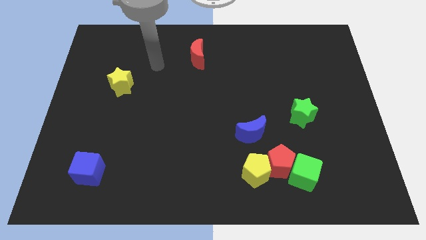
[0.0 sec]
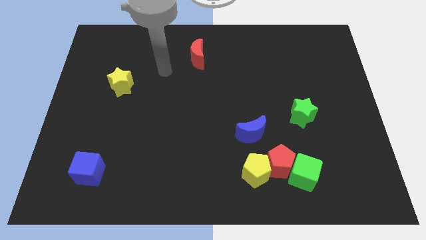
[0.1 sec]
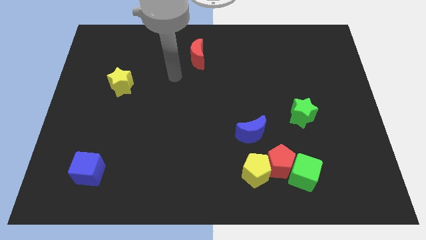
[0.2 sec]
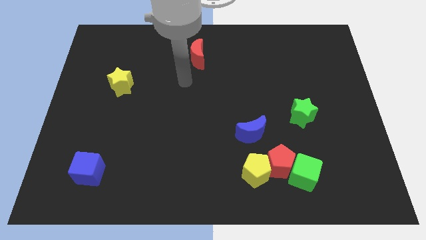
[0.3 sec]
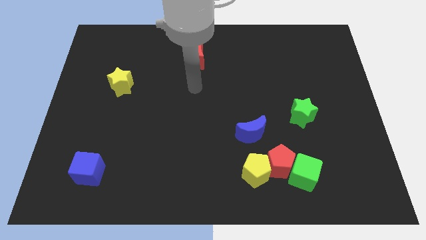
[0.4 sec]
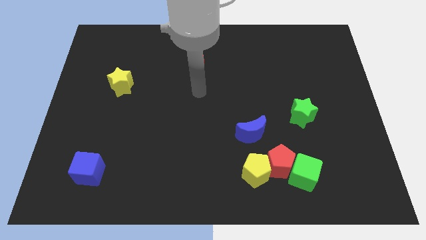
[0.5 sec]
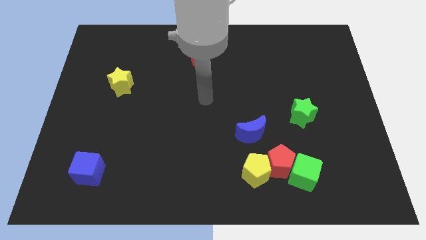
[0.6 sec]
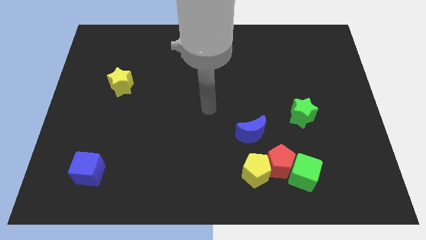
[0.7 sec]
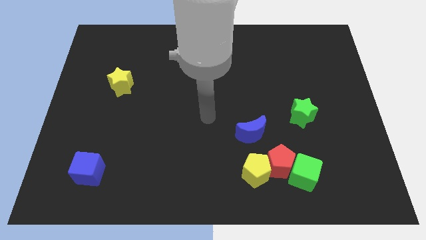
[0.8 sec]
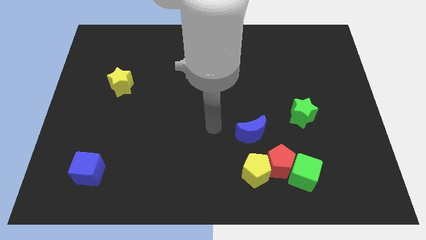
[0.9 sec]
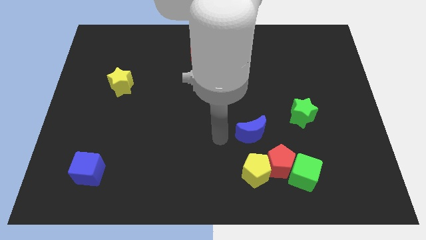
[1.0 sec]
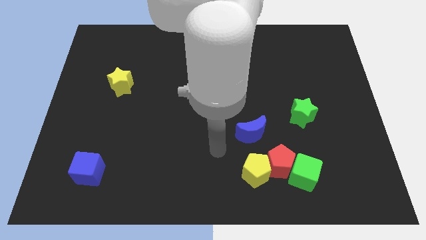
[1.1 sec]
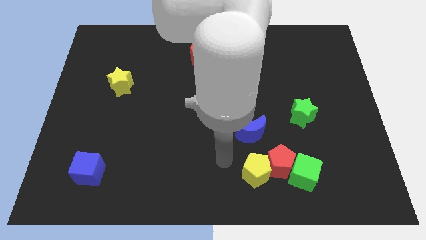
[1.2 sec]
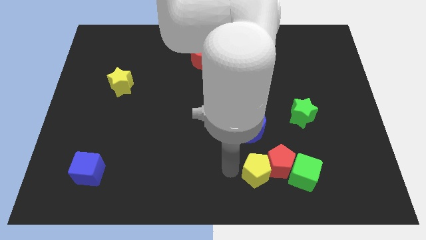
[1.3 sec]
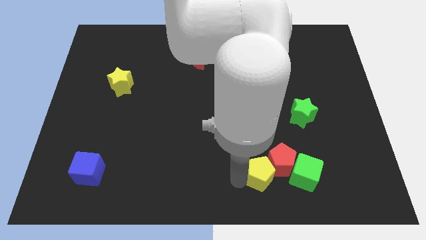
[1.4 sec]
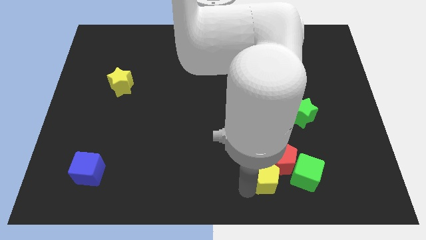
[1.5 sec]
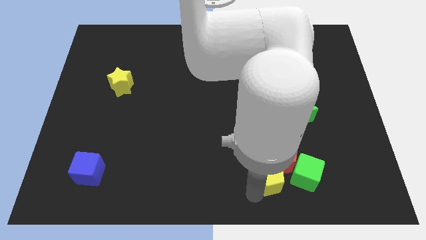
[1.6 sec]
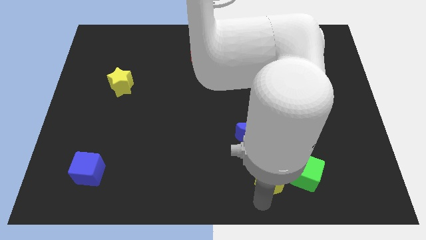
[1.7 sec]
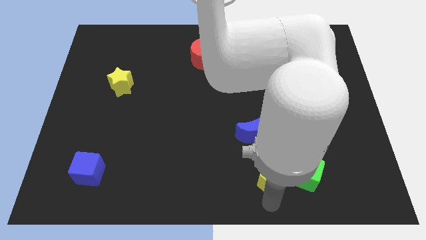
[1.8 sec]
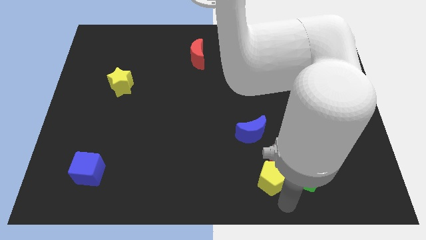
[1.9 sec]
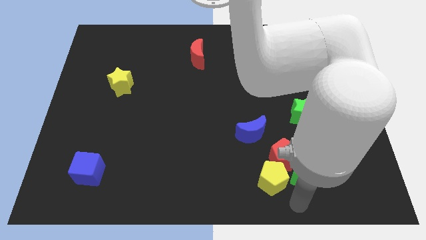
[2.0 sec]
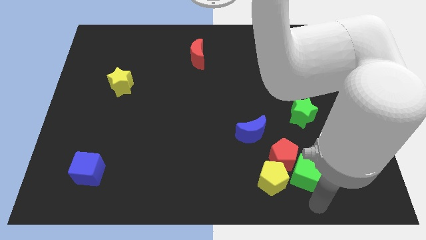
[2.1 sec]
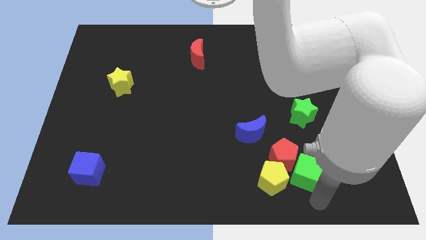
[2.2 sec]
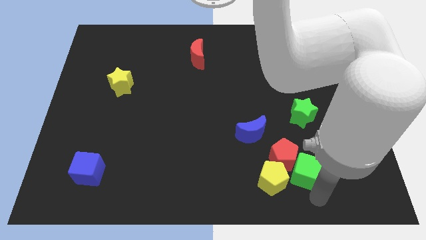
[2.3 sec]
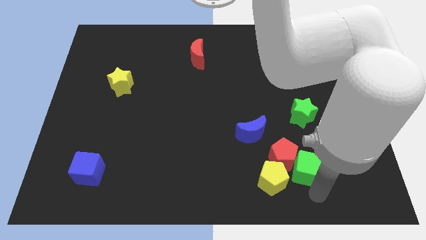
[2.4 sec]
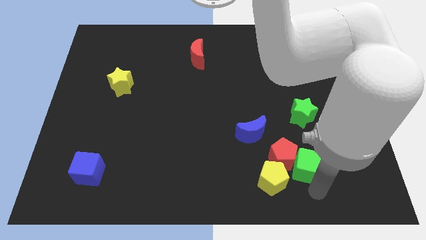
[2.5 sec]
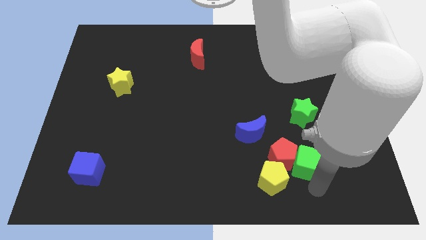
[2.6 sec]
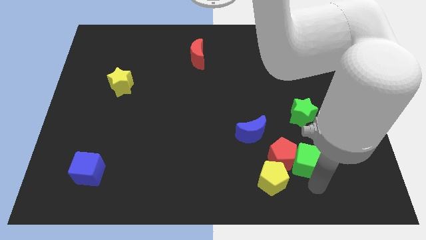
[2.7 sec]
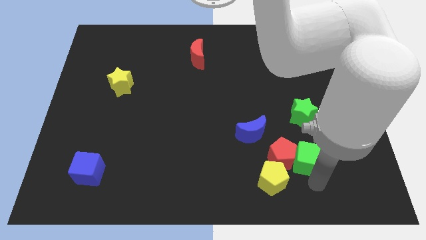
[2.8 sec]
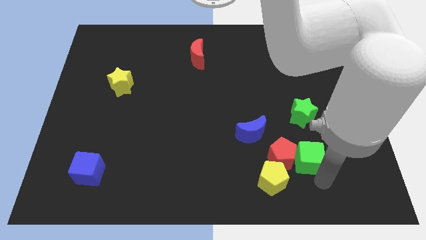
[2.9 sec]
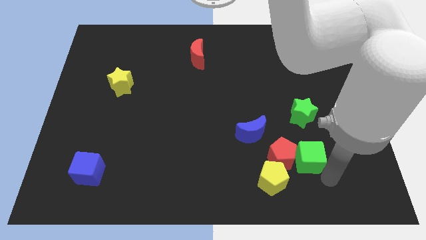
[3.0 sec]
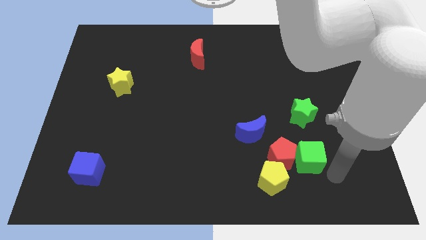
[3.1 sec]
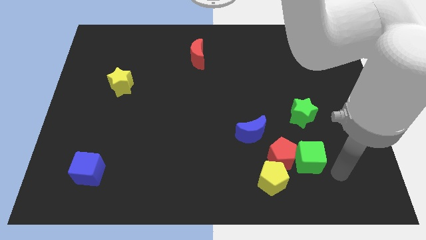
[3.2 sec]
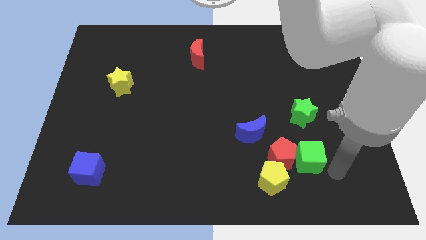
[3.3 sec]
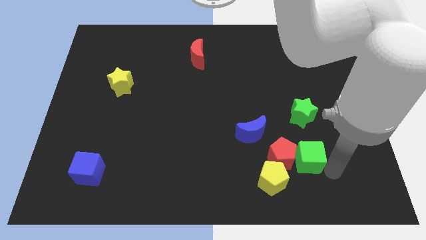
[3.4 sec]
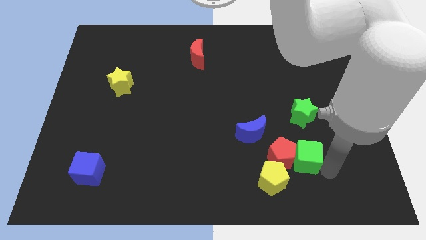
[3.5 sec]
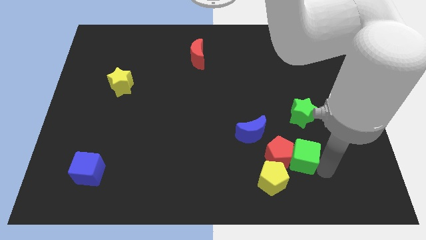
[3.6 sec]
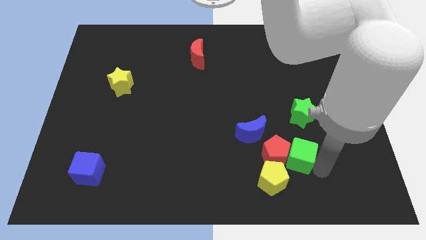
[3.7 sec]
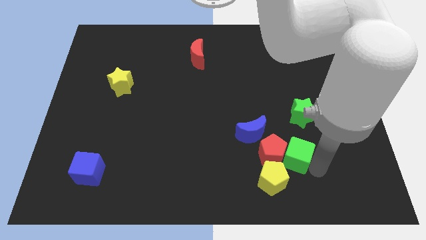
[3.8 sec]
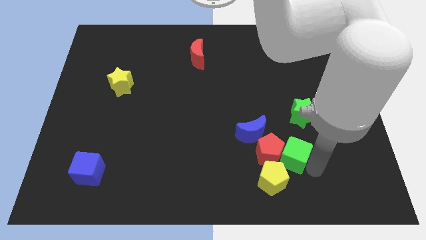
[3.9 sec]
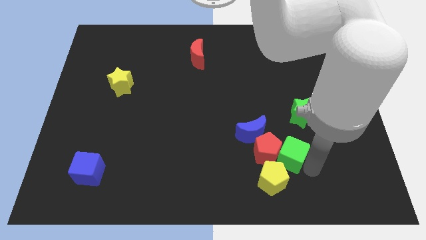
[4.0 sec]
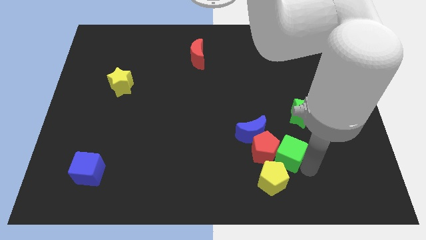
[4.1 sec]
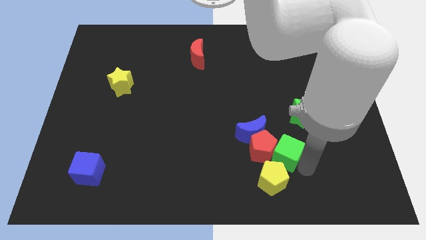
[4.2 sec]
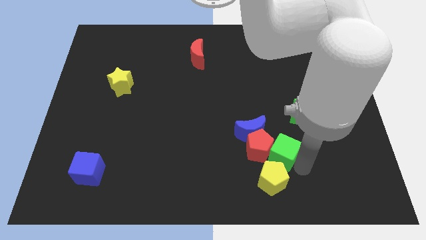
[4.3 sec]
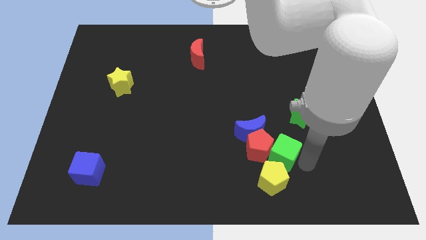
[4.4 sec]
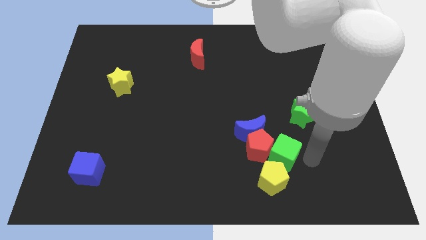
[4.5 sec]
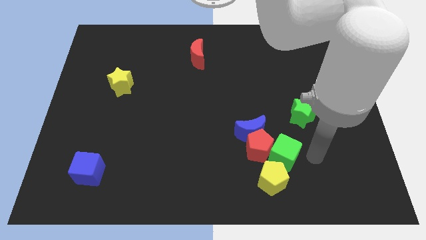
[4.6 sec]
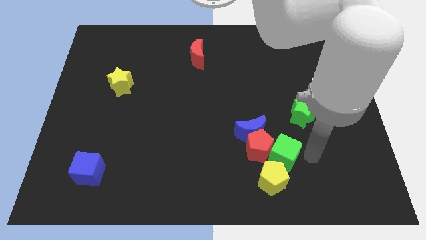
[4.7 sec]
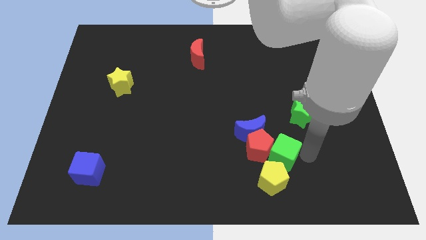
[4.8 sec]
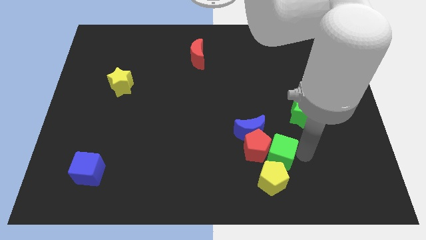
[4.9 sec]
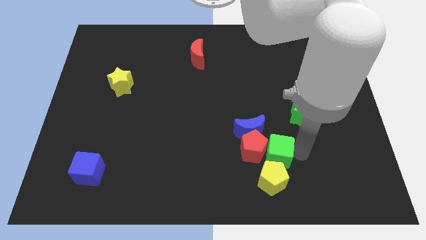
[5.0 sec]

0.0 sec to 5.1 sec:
push the green cube up and to the left diagonally a bit

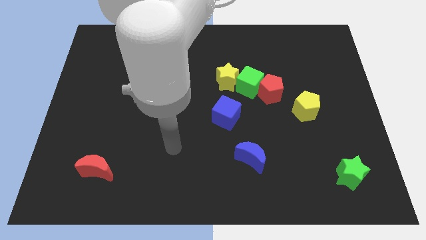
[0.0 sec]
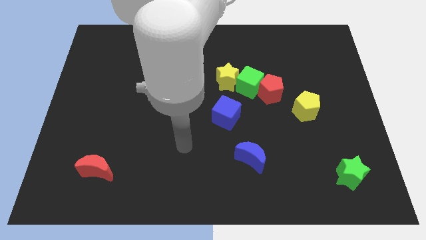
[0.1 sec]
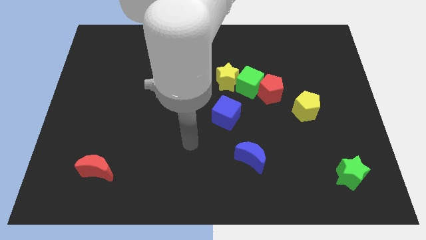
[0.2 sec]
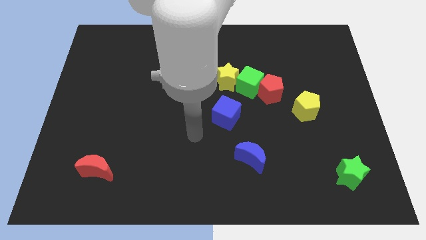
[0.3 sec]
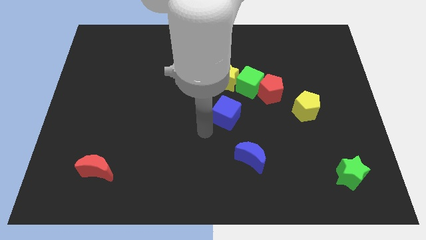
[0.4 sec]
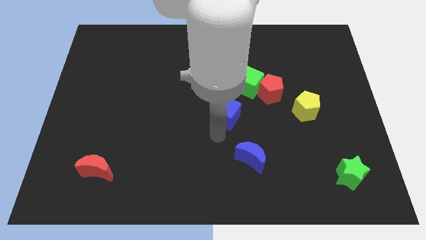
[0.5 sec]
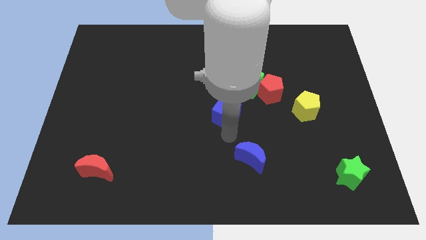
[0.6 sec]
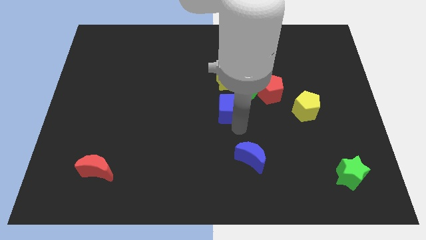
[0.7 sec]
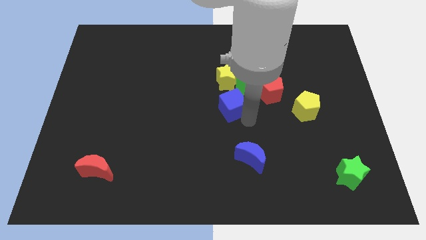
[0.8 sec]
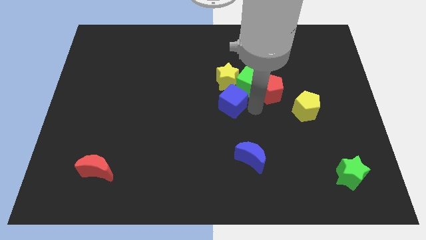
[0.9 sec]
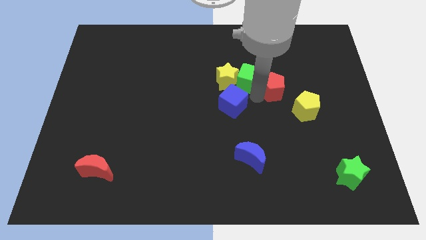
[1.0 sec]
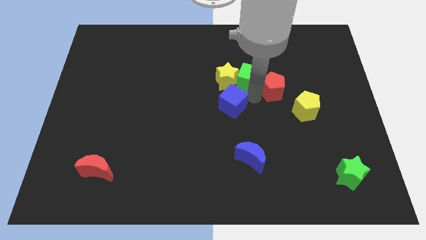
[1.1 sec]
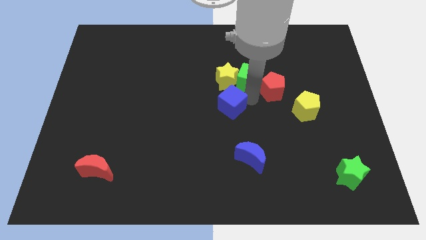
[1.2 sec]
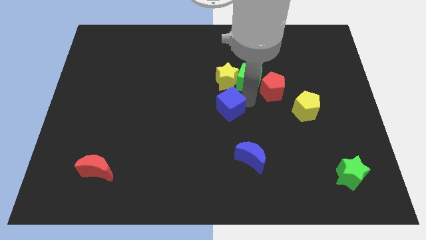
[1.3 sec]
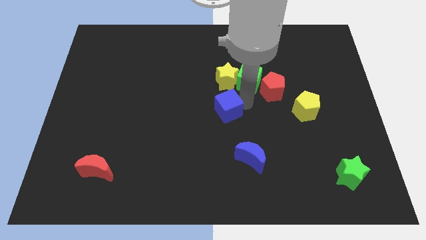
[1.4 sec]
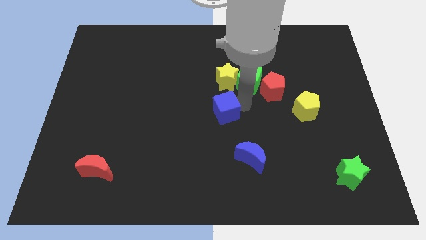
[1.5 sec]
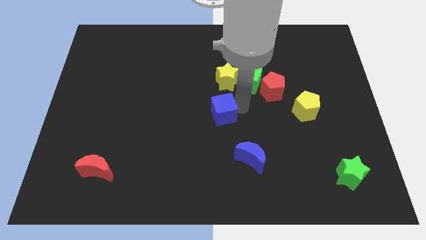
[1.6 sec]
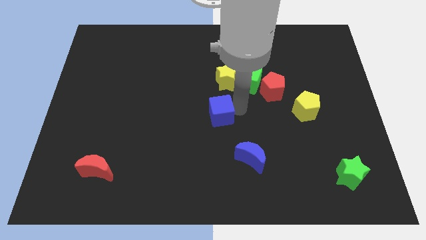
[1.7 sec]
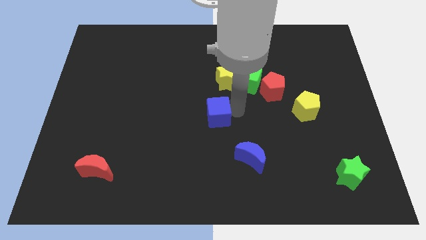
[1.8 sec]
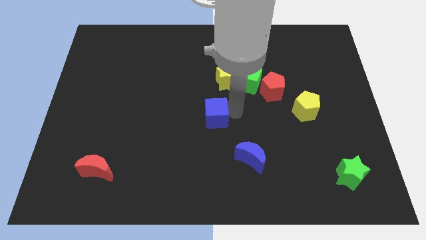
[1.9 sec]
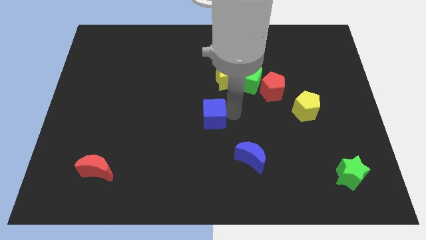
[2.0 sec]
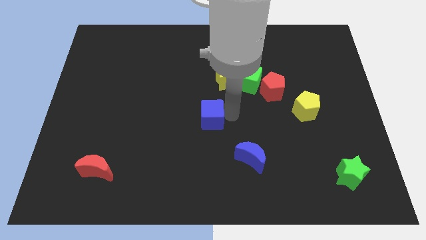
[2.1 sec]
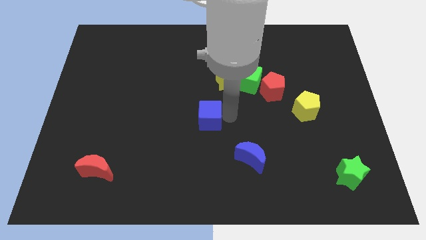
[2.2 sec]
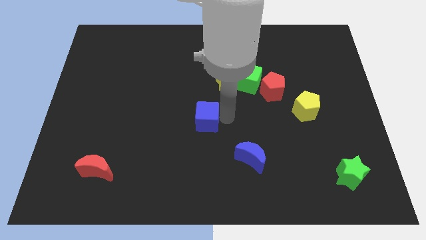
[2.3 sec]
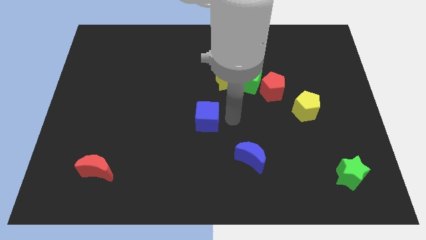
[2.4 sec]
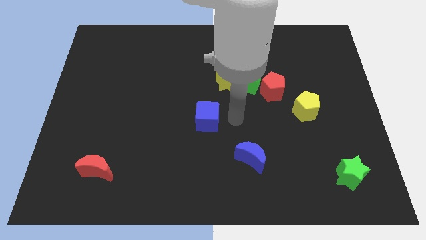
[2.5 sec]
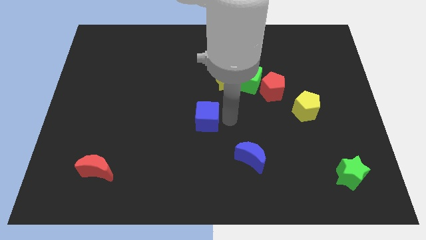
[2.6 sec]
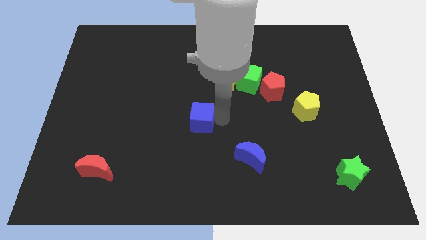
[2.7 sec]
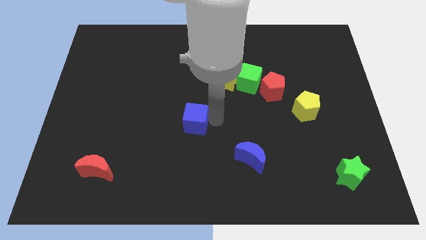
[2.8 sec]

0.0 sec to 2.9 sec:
slide the blue cube a little bit to the left
